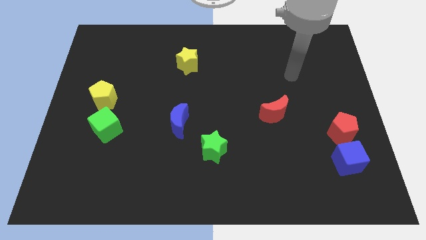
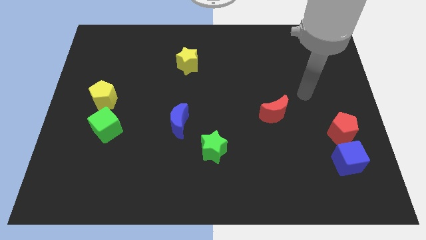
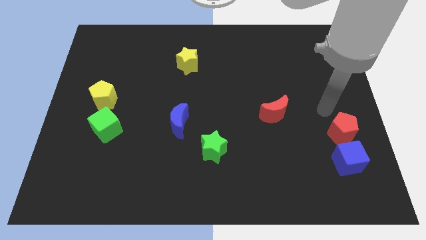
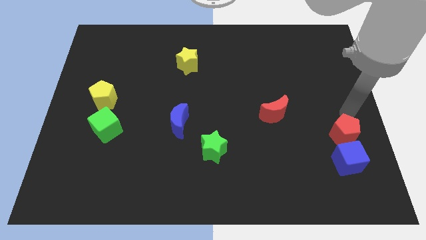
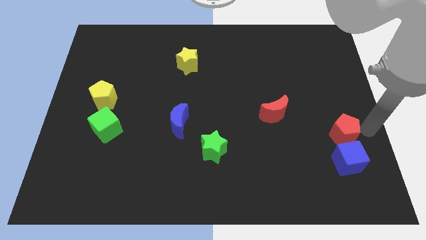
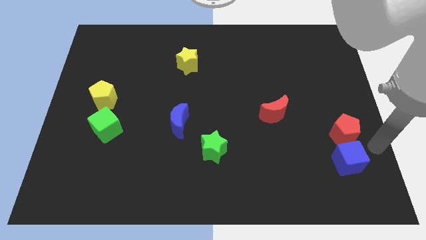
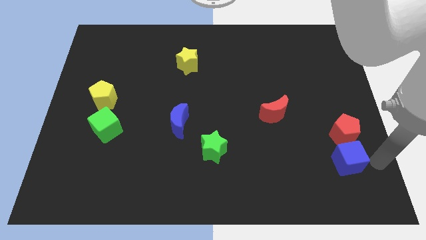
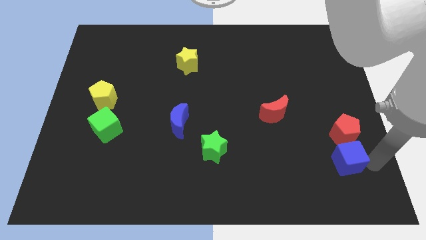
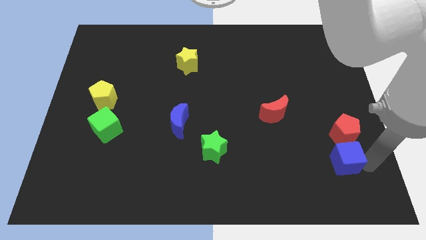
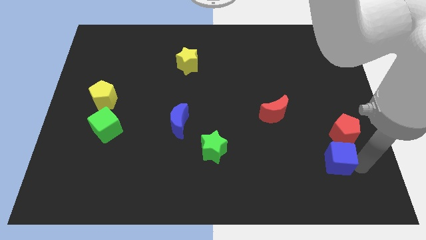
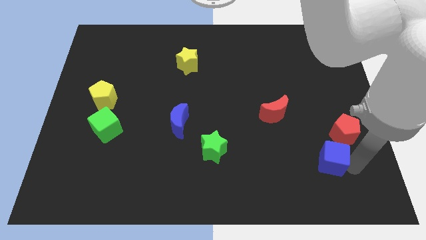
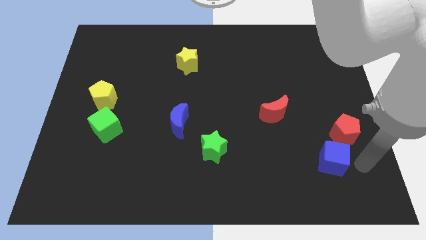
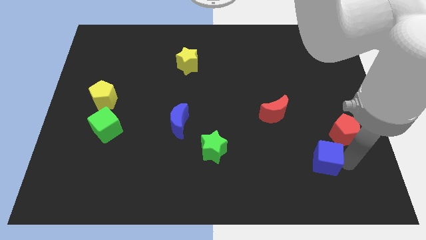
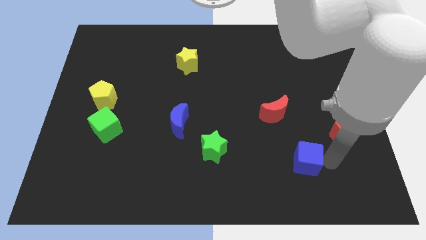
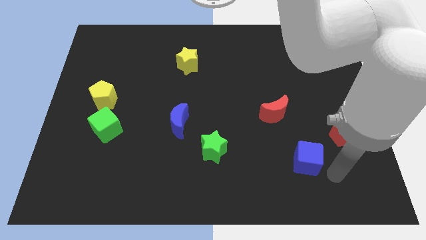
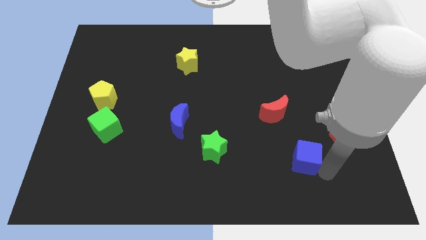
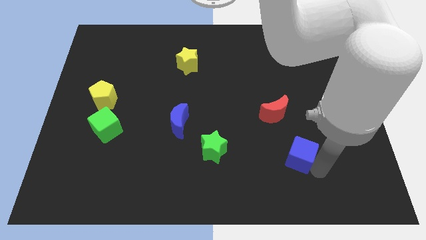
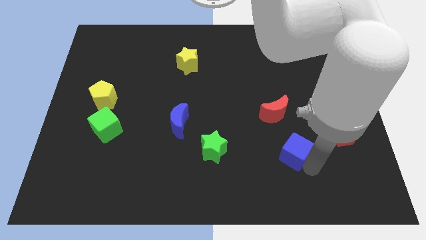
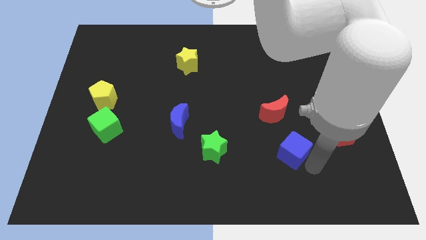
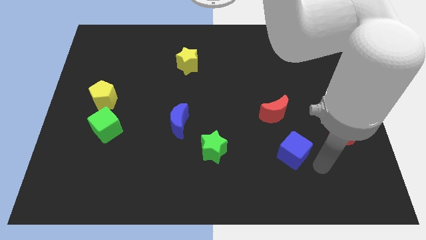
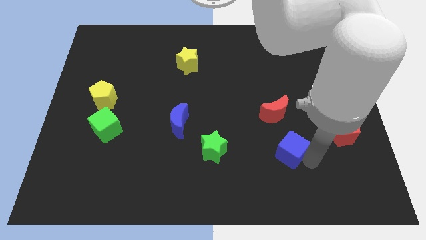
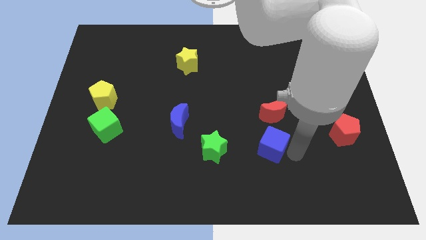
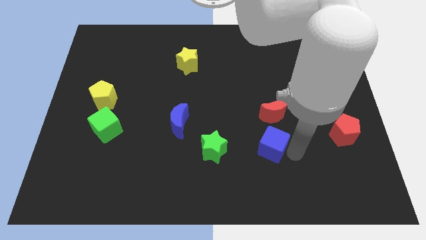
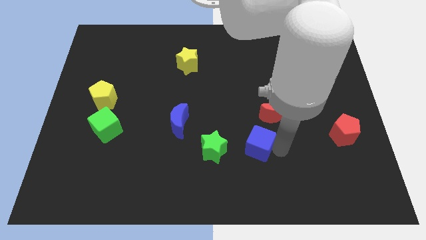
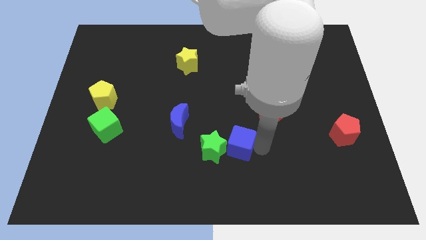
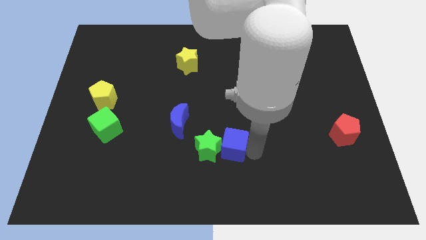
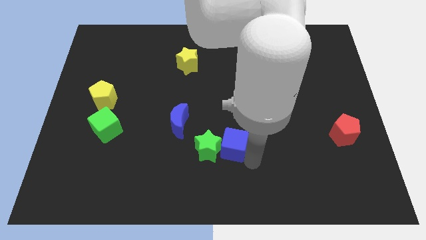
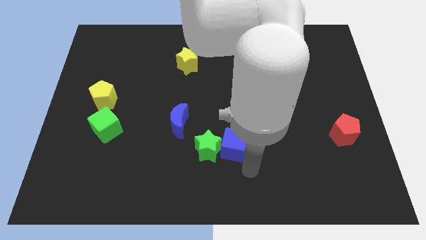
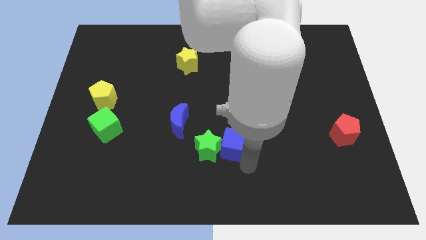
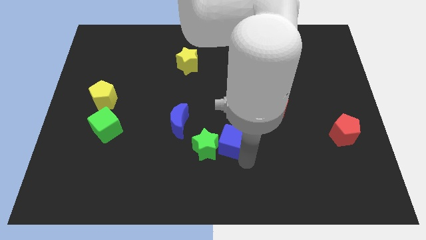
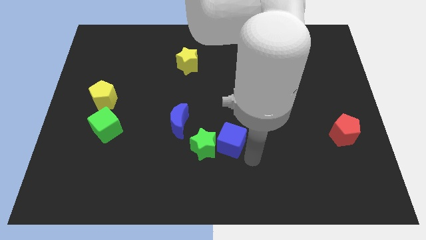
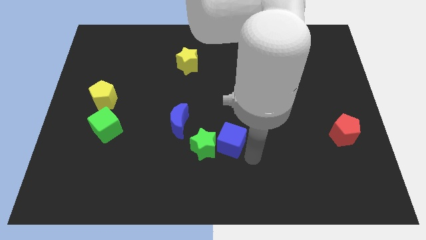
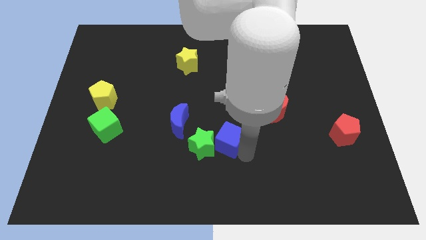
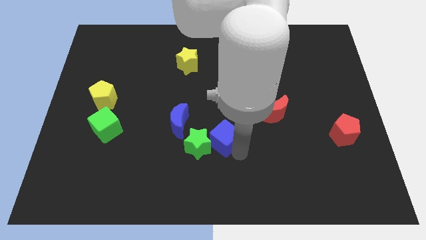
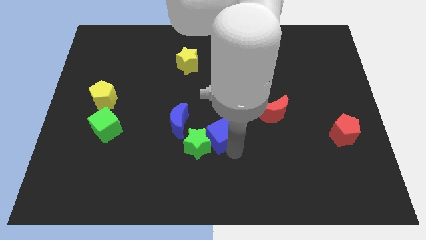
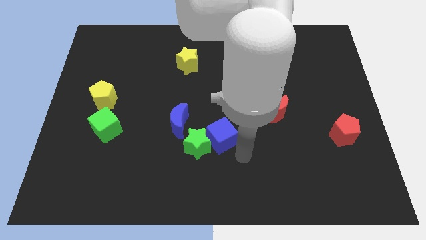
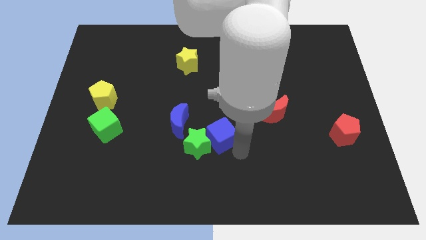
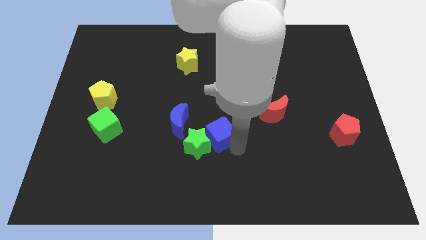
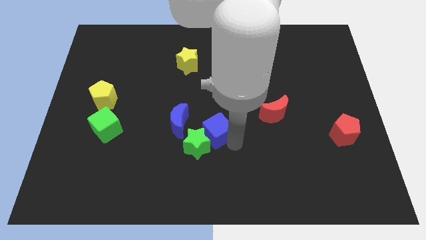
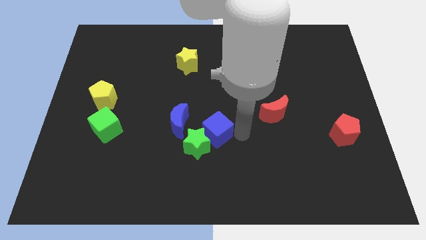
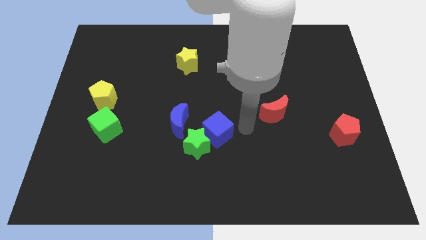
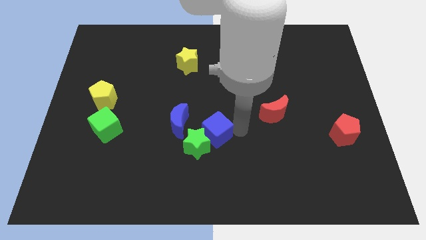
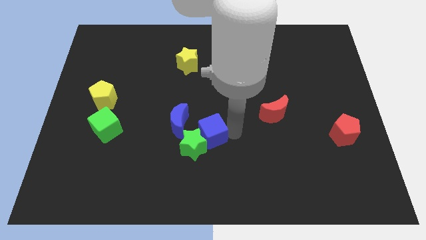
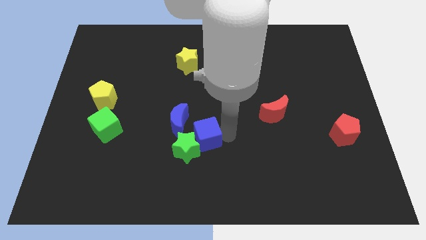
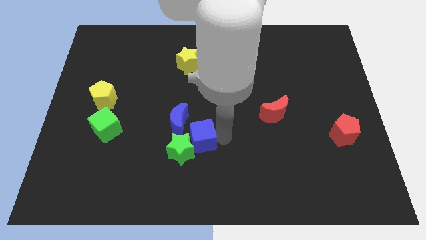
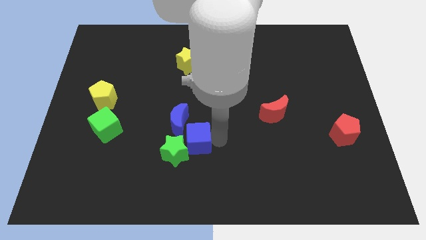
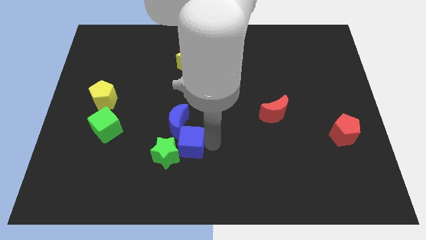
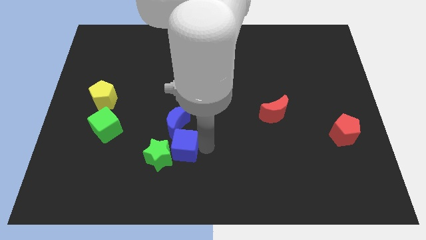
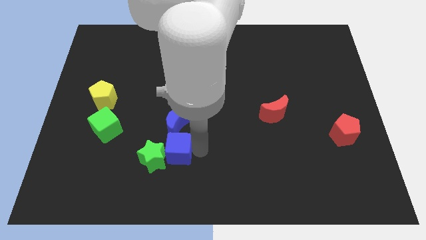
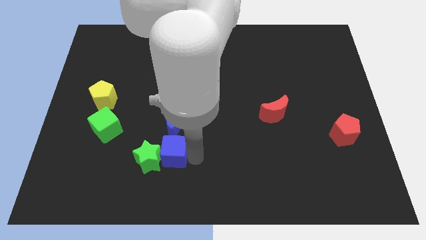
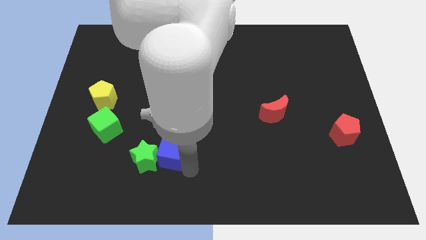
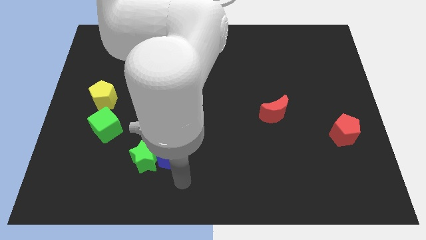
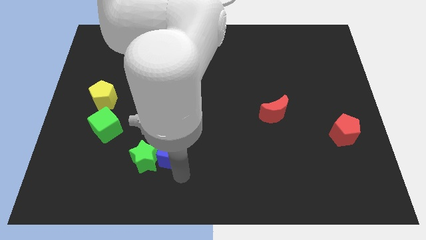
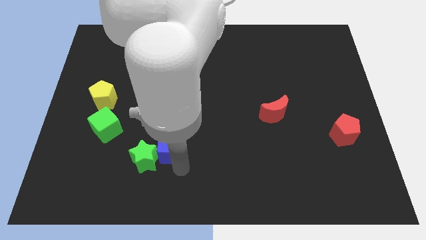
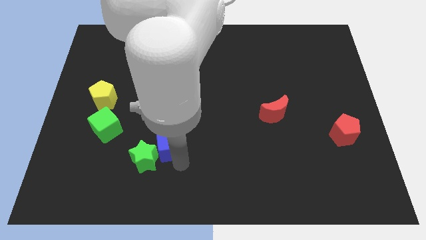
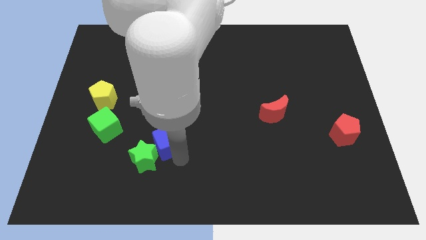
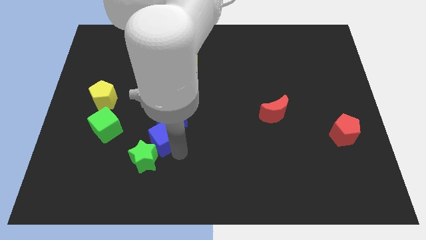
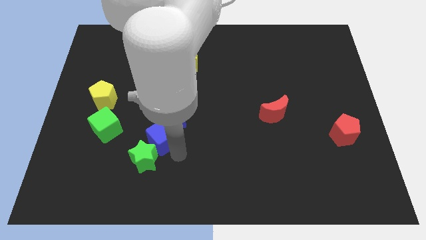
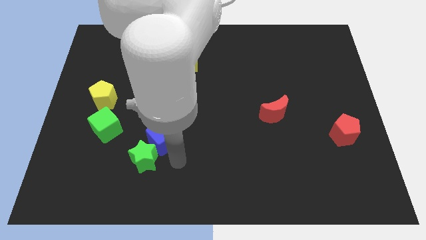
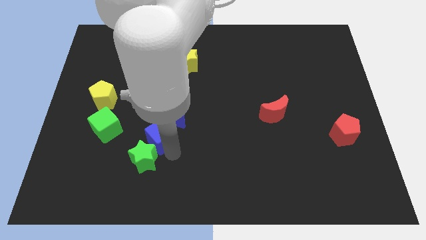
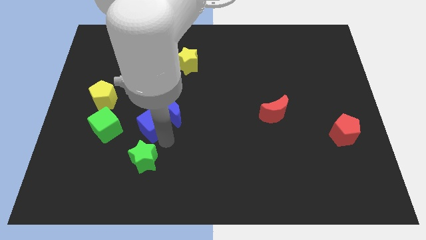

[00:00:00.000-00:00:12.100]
put the blue cube just left of the blue moon

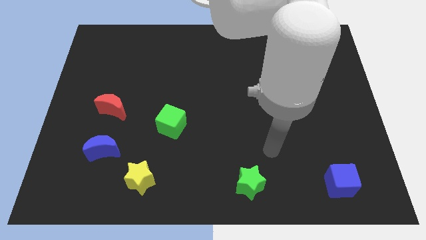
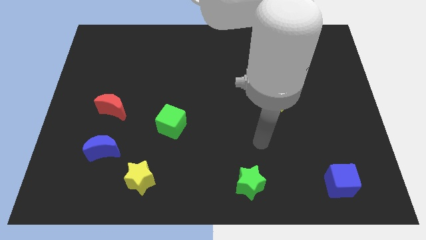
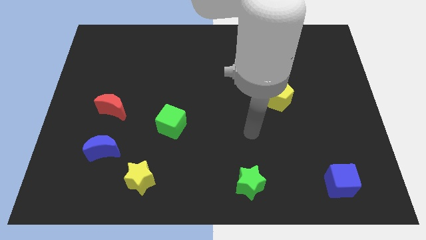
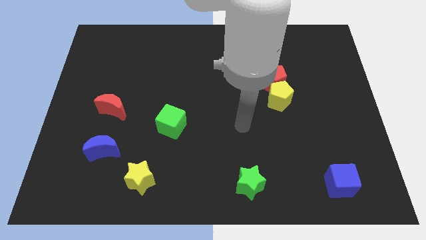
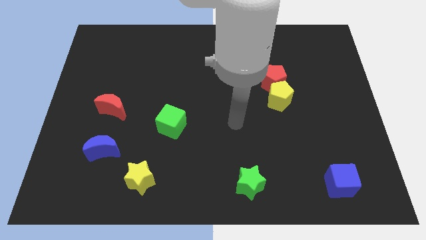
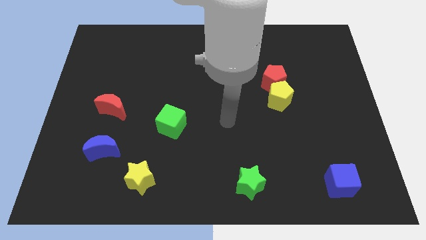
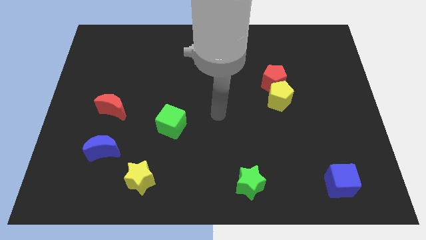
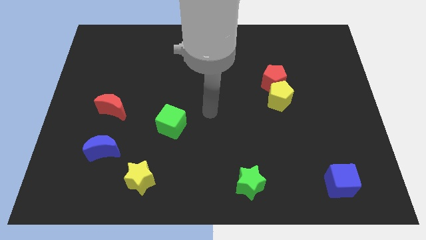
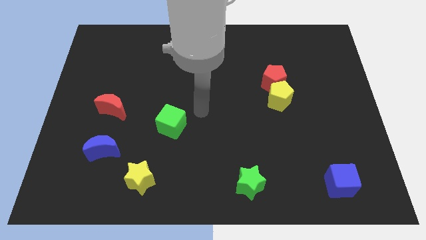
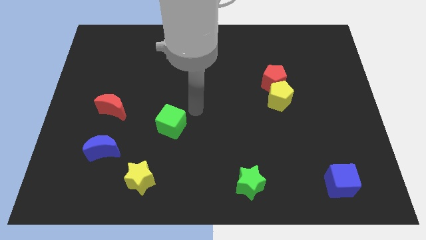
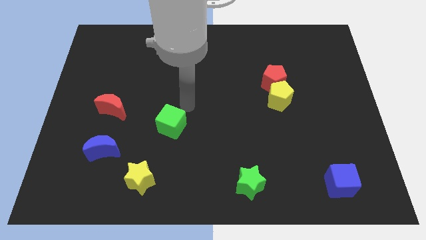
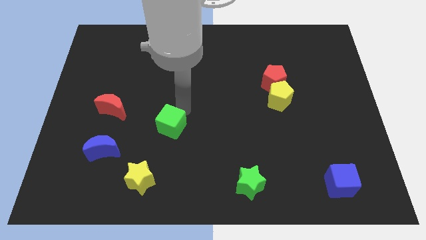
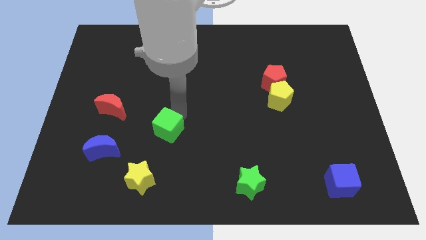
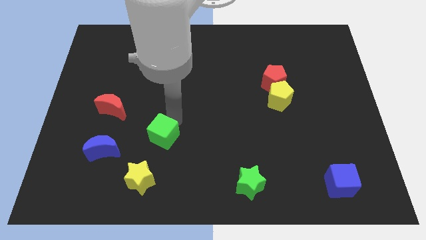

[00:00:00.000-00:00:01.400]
move the green cube right of the blue moon
